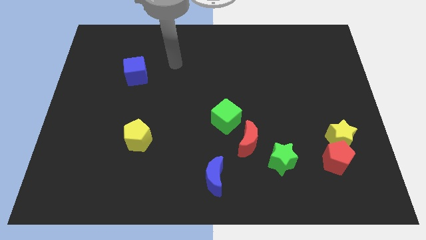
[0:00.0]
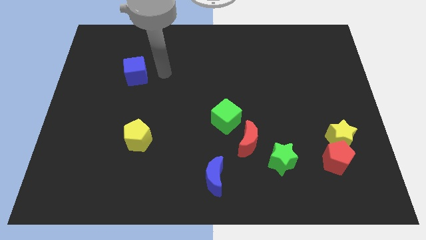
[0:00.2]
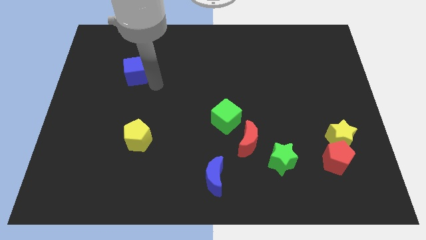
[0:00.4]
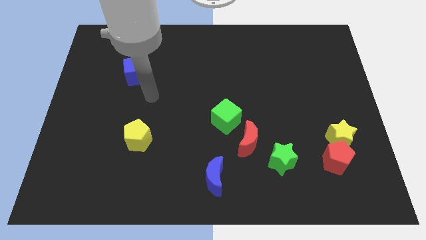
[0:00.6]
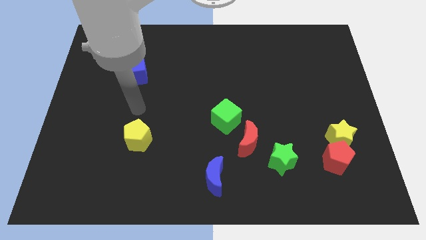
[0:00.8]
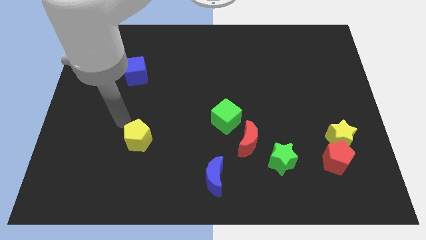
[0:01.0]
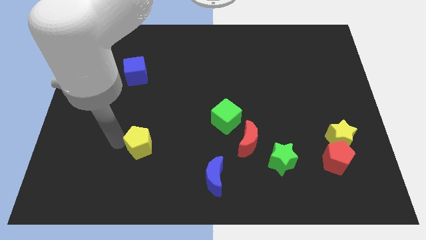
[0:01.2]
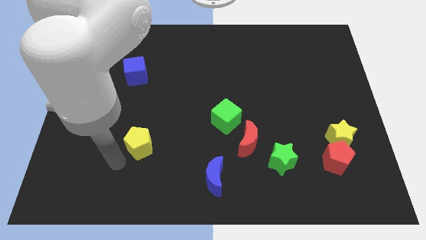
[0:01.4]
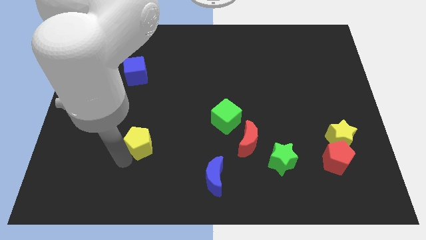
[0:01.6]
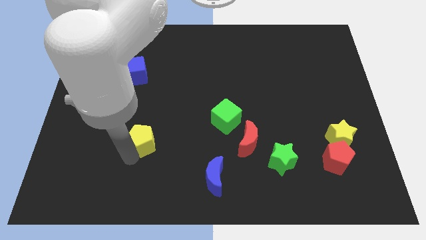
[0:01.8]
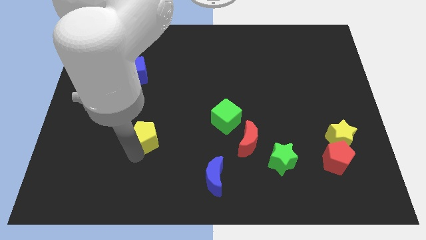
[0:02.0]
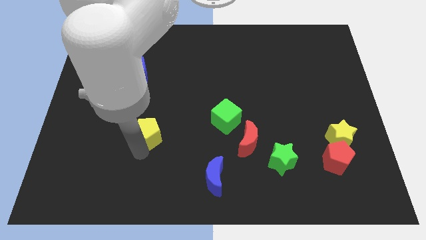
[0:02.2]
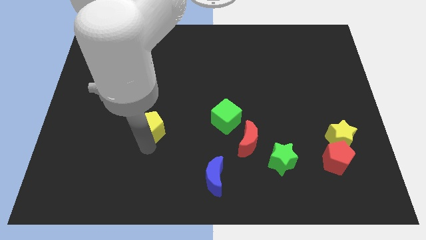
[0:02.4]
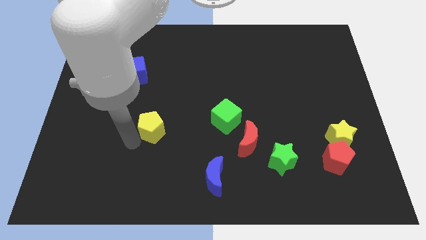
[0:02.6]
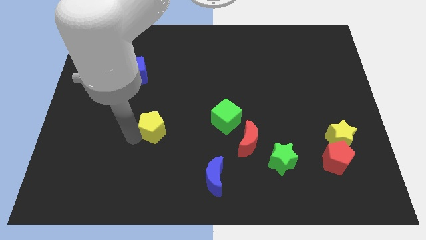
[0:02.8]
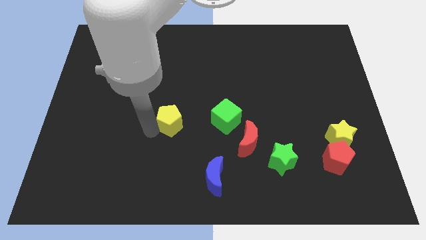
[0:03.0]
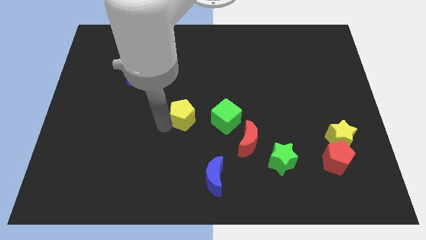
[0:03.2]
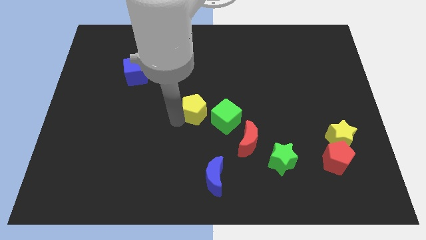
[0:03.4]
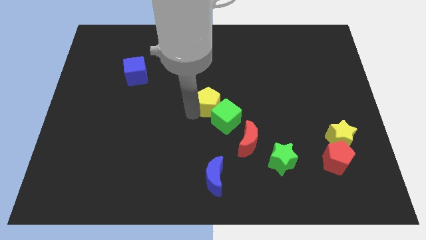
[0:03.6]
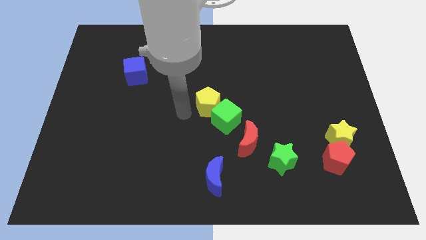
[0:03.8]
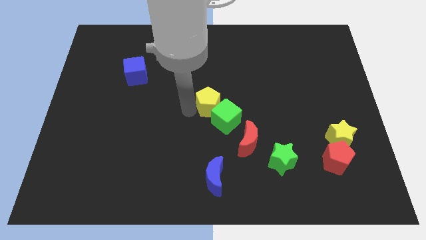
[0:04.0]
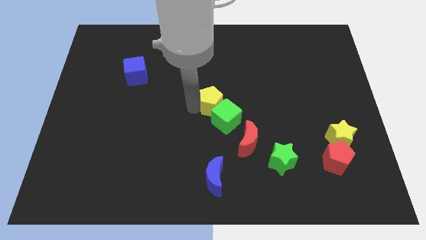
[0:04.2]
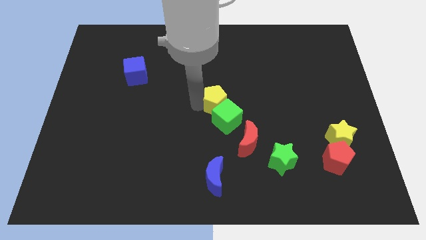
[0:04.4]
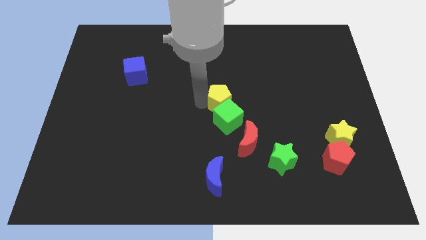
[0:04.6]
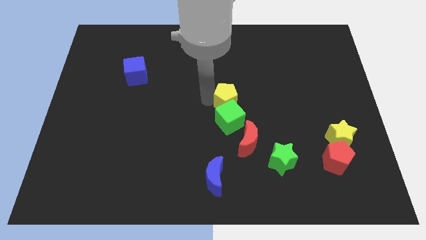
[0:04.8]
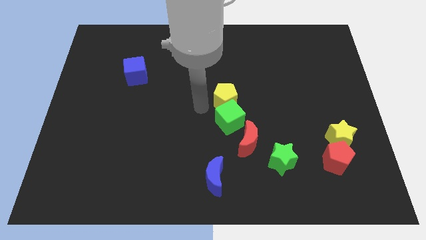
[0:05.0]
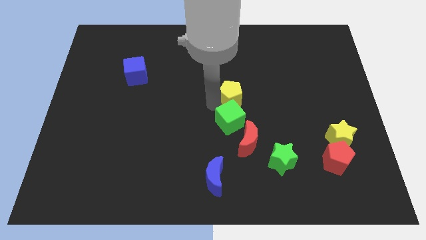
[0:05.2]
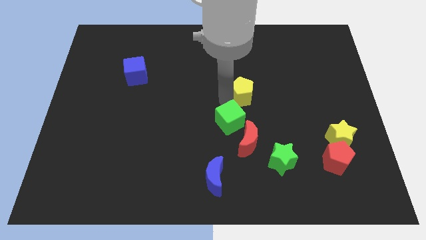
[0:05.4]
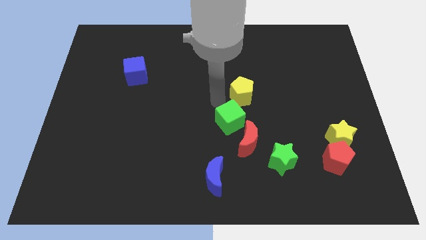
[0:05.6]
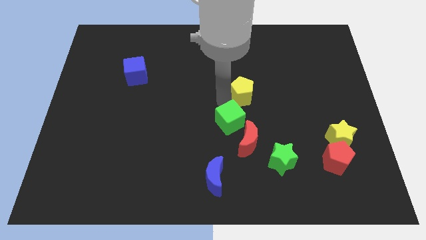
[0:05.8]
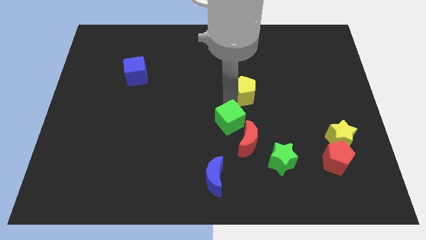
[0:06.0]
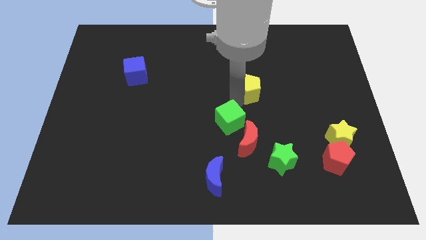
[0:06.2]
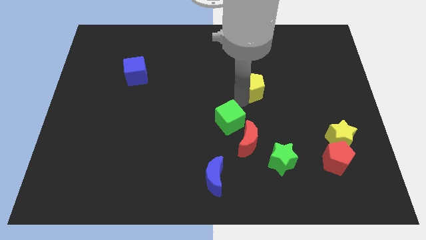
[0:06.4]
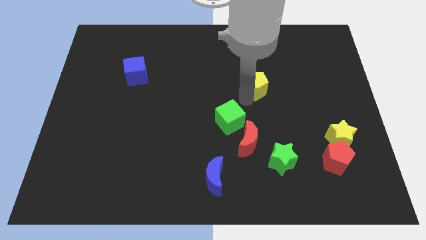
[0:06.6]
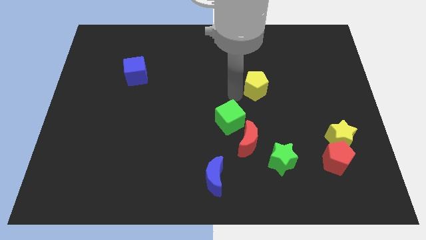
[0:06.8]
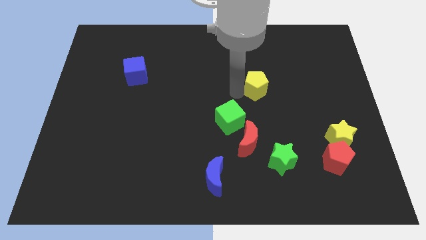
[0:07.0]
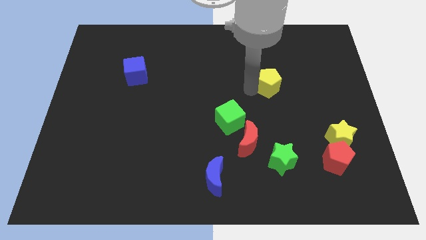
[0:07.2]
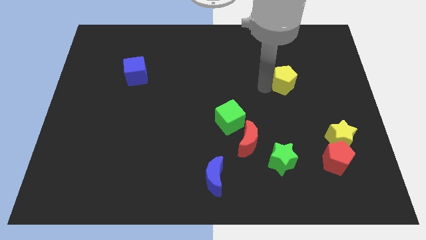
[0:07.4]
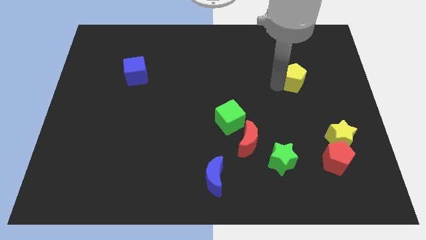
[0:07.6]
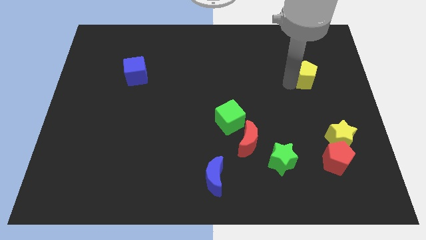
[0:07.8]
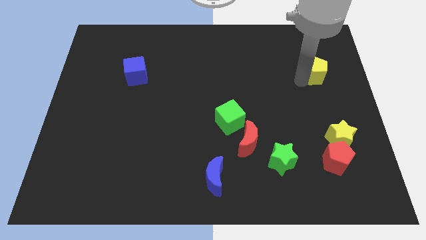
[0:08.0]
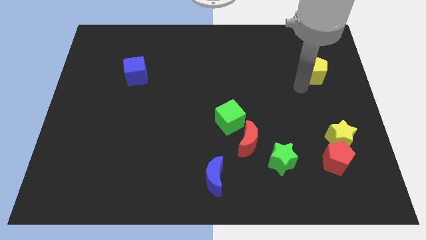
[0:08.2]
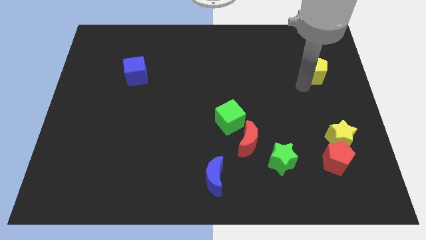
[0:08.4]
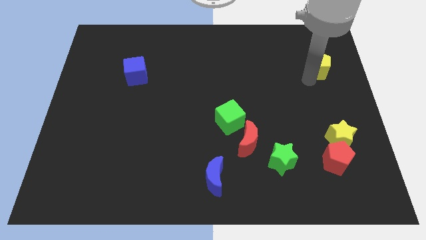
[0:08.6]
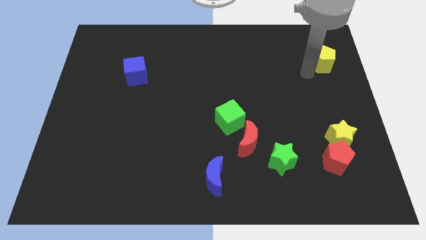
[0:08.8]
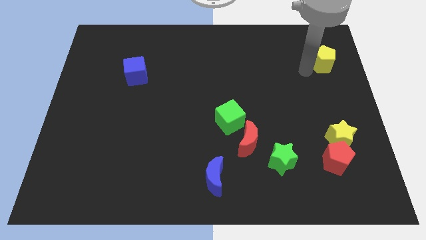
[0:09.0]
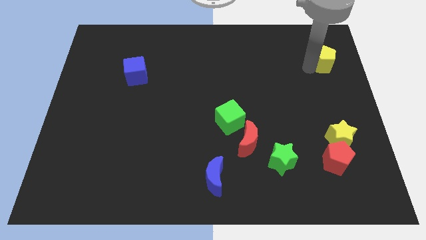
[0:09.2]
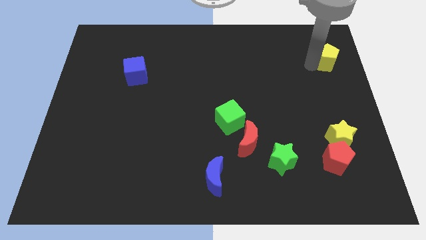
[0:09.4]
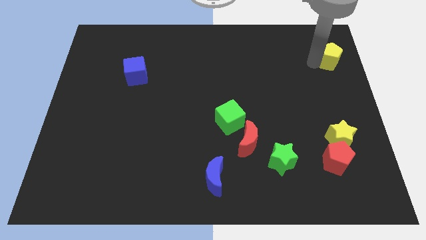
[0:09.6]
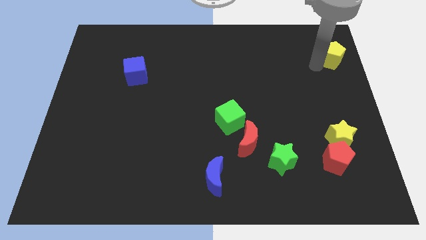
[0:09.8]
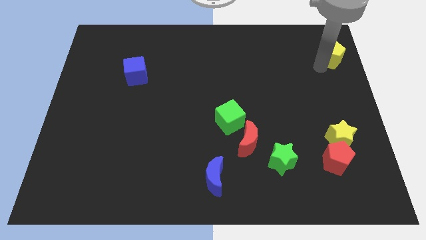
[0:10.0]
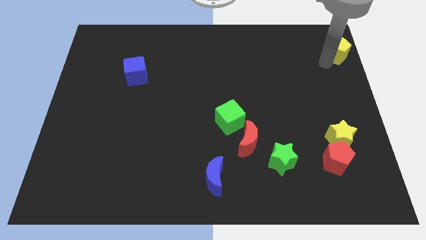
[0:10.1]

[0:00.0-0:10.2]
put the yellow pentagon to the upper right corner

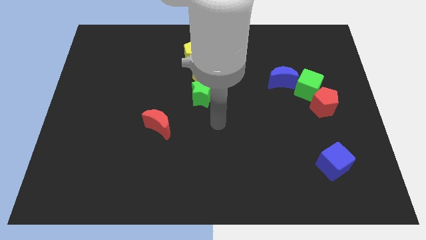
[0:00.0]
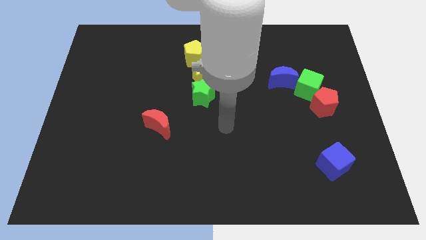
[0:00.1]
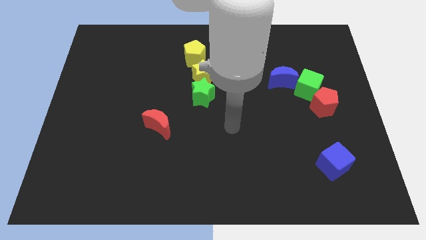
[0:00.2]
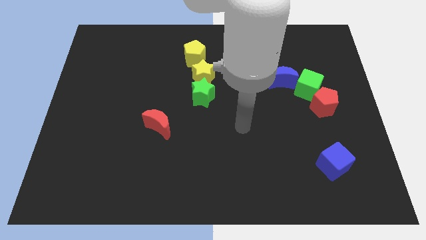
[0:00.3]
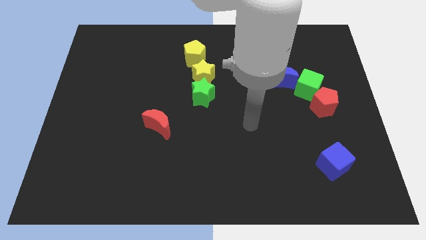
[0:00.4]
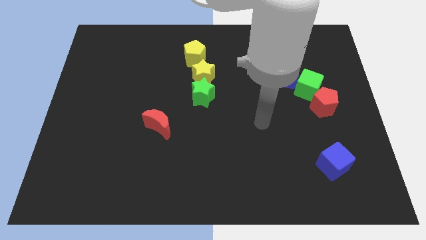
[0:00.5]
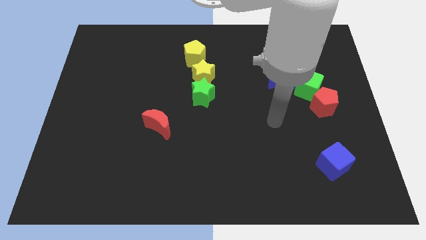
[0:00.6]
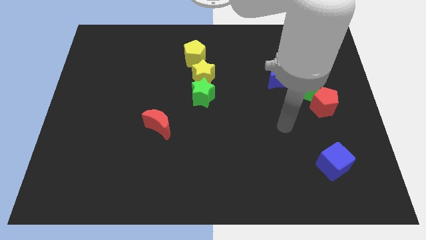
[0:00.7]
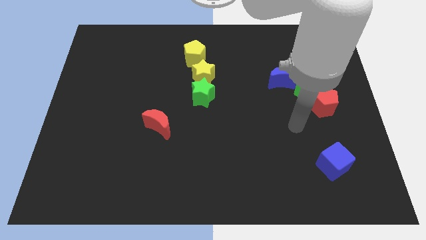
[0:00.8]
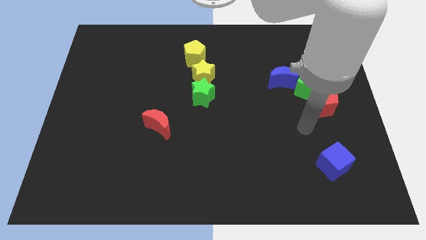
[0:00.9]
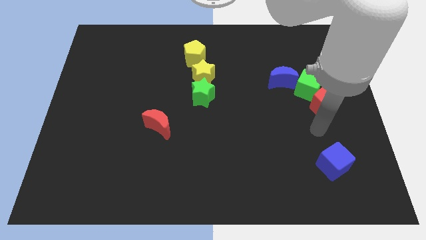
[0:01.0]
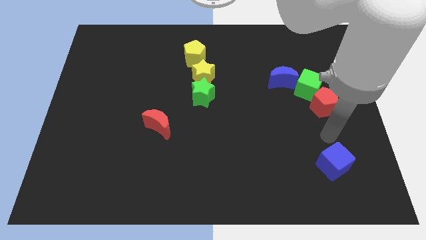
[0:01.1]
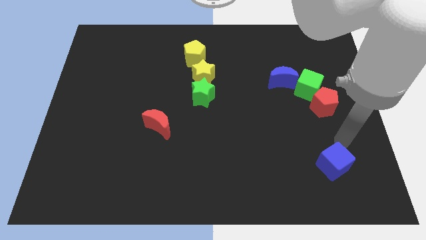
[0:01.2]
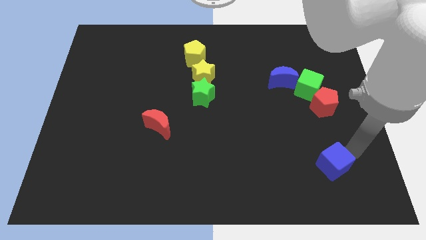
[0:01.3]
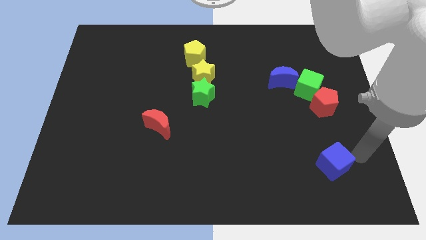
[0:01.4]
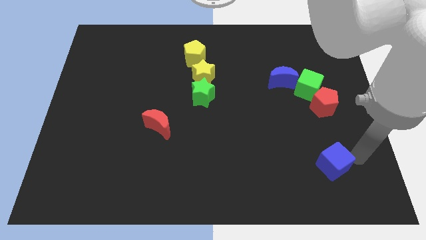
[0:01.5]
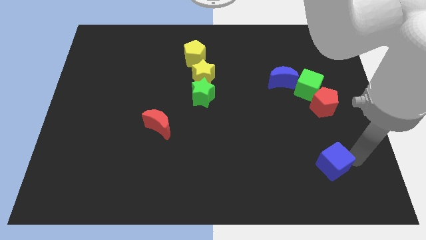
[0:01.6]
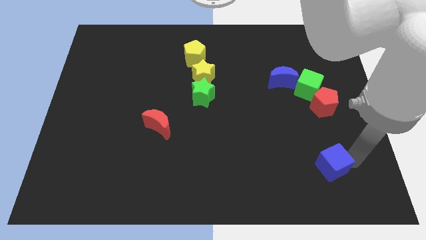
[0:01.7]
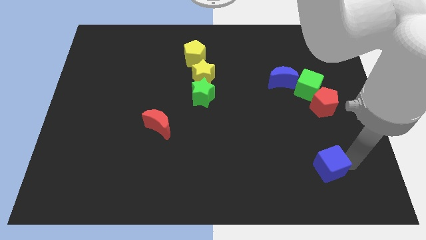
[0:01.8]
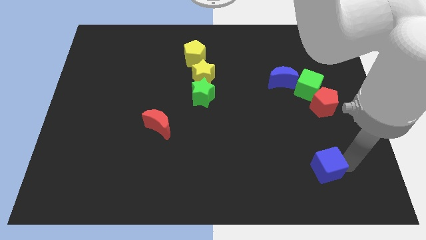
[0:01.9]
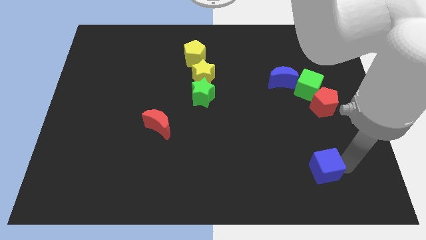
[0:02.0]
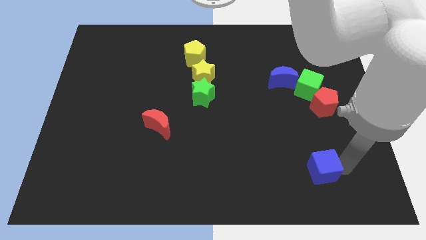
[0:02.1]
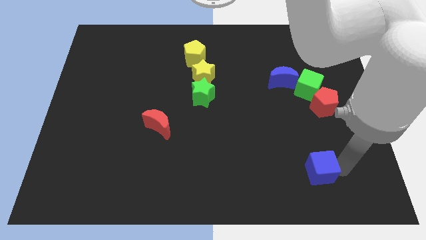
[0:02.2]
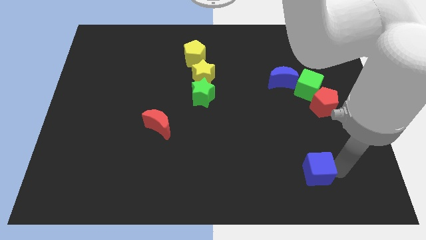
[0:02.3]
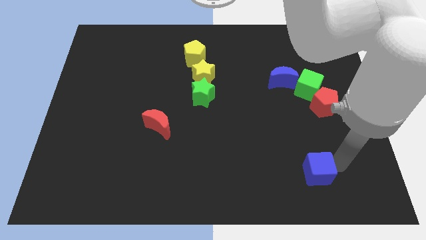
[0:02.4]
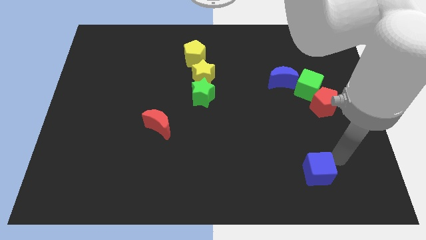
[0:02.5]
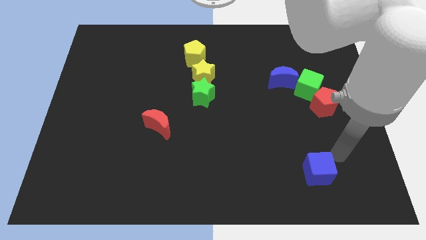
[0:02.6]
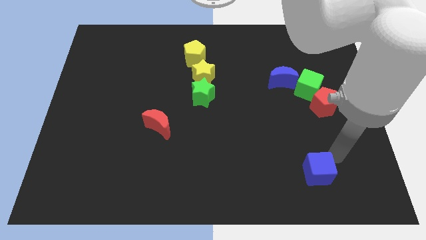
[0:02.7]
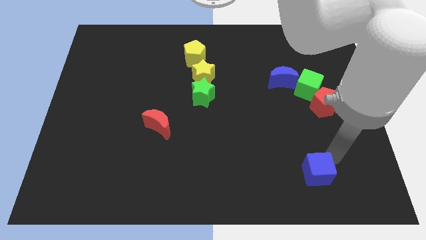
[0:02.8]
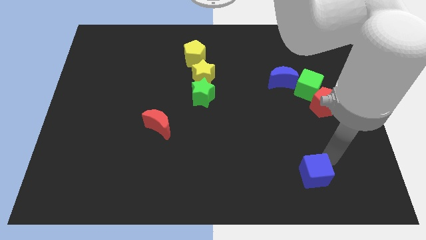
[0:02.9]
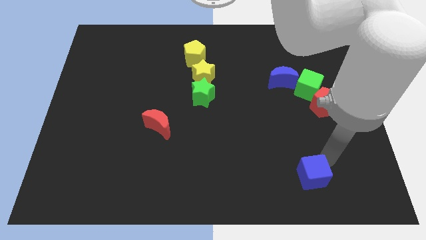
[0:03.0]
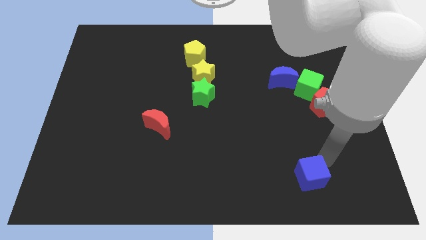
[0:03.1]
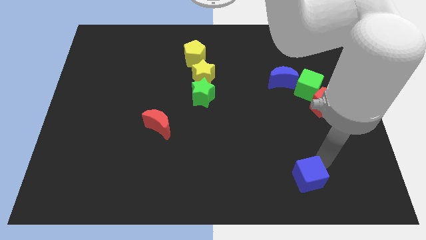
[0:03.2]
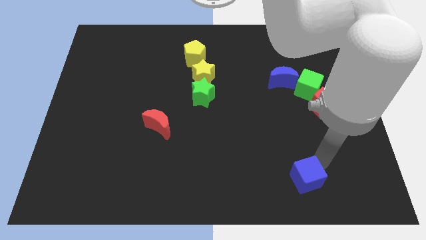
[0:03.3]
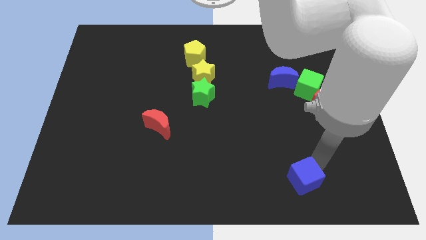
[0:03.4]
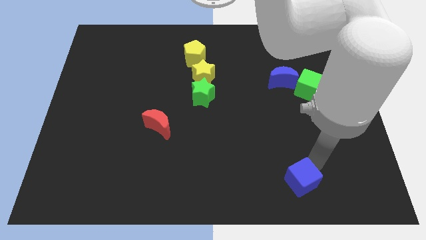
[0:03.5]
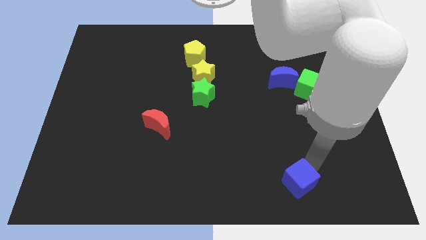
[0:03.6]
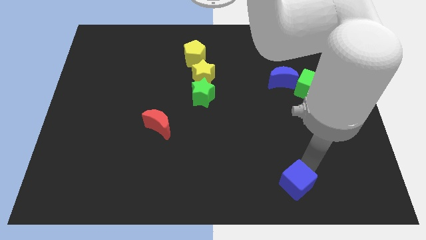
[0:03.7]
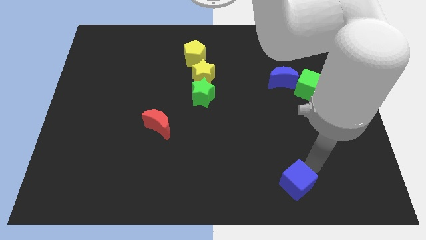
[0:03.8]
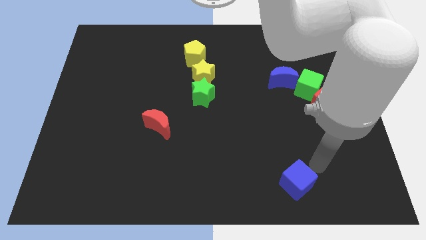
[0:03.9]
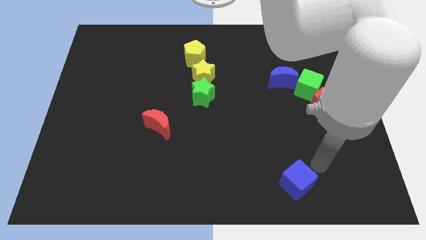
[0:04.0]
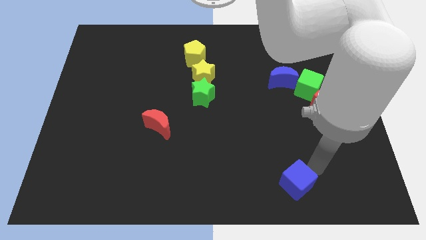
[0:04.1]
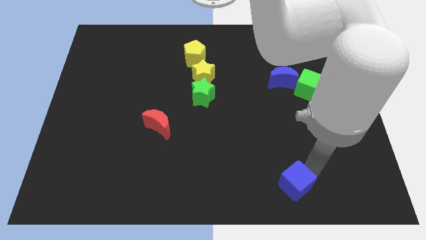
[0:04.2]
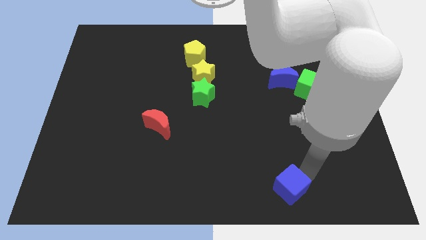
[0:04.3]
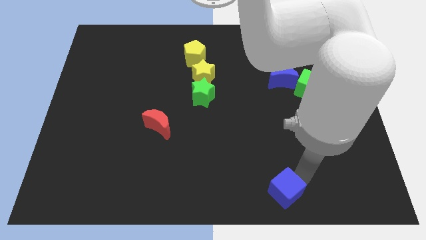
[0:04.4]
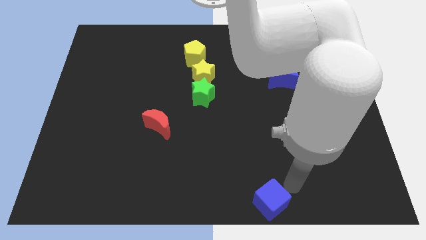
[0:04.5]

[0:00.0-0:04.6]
push the blue cube to the bottom
